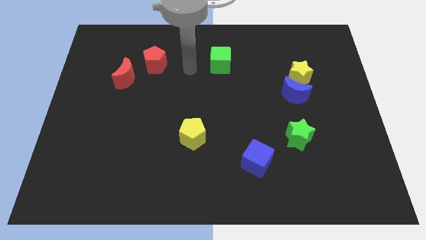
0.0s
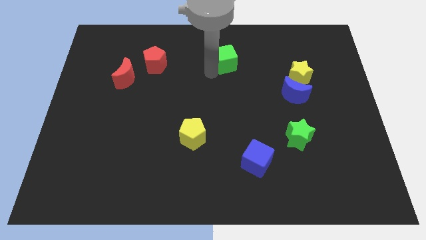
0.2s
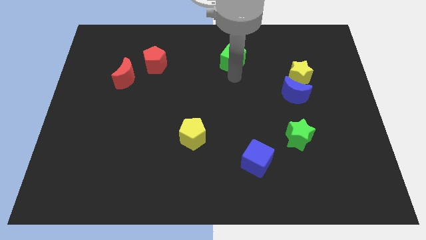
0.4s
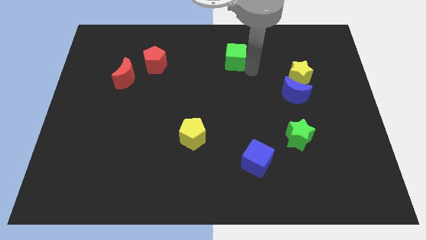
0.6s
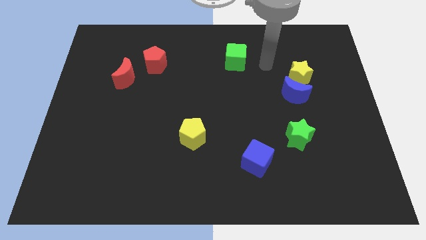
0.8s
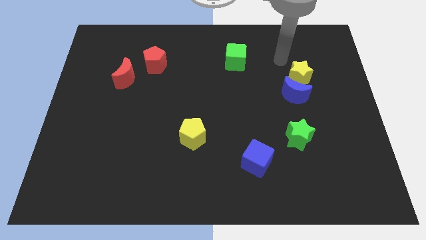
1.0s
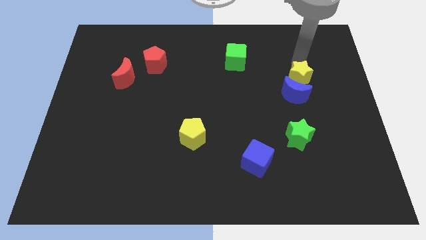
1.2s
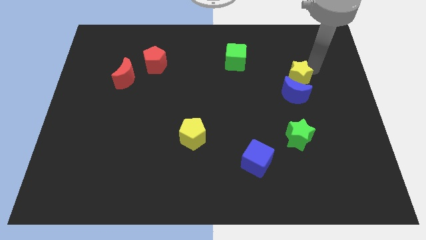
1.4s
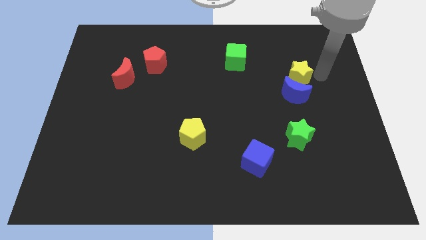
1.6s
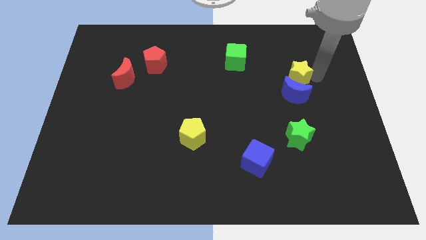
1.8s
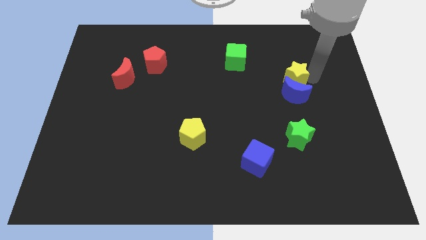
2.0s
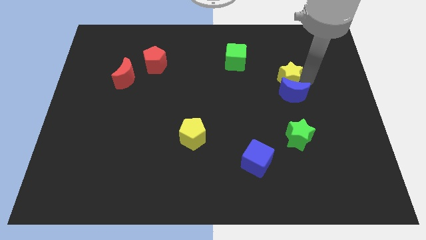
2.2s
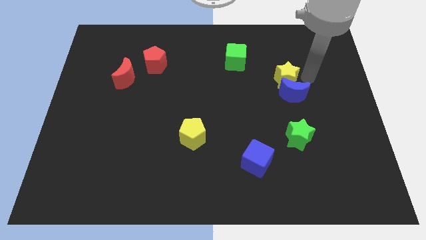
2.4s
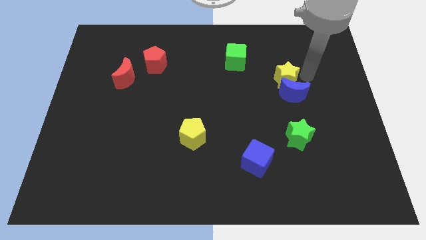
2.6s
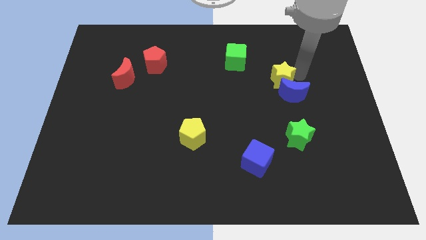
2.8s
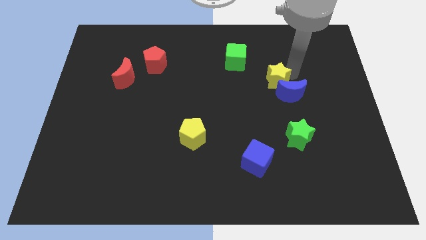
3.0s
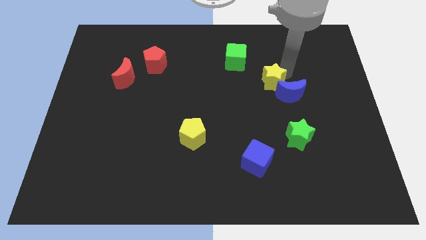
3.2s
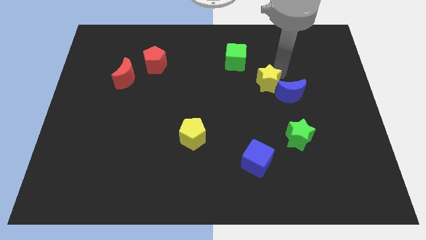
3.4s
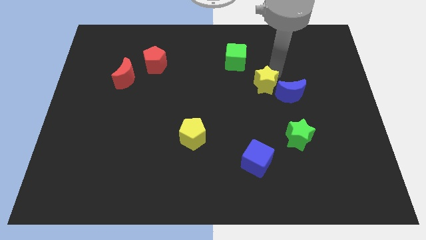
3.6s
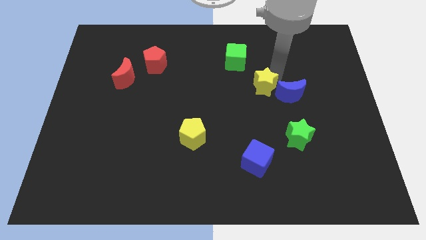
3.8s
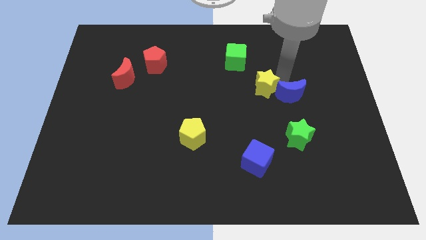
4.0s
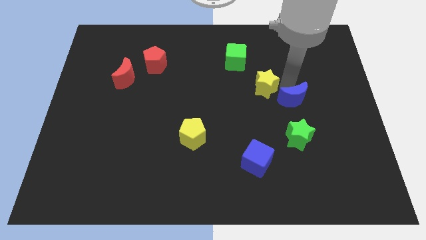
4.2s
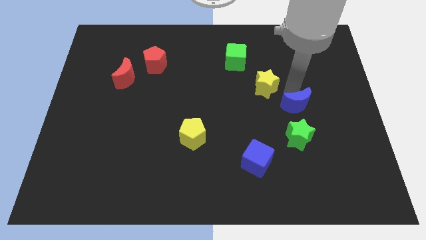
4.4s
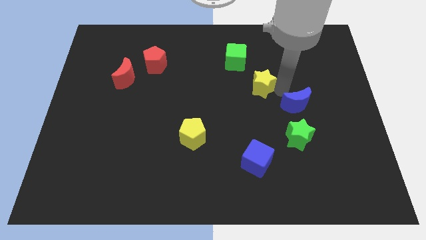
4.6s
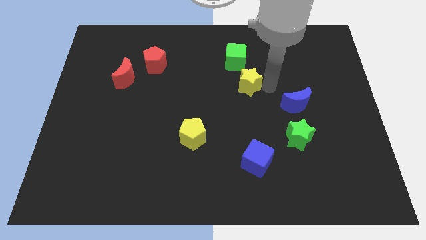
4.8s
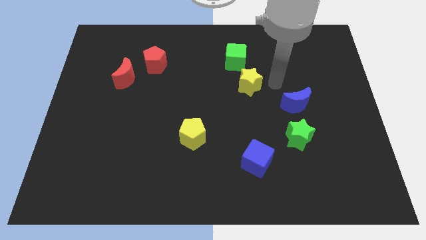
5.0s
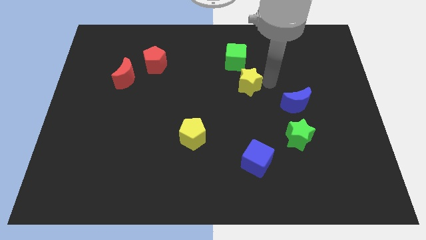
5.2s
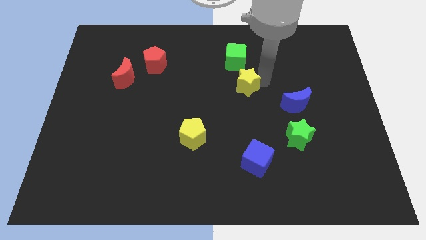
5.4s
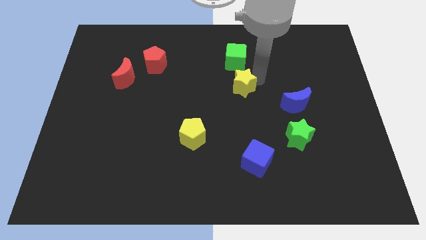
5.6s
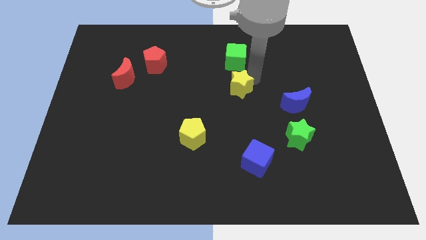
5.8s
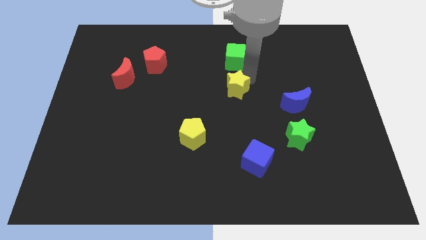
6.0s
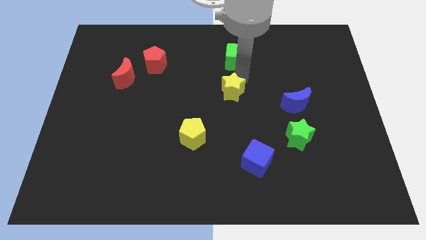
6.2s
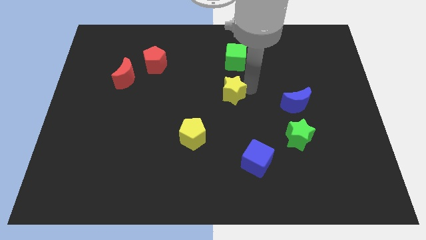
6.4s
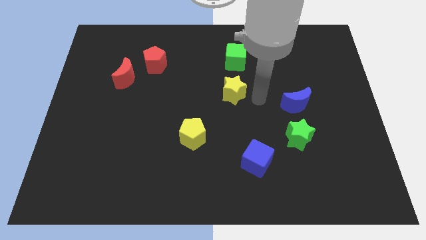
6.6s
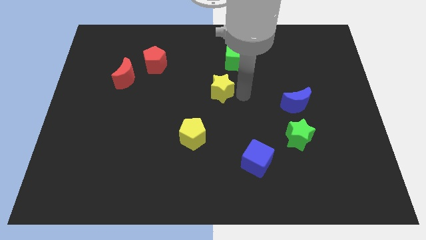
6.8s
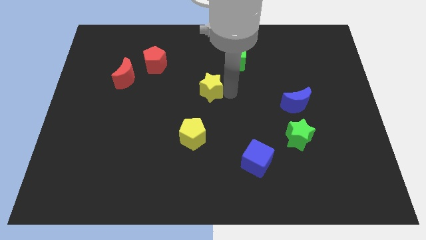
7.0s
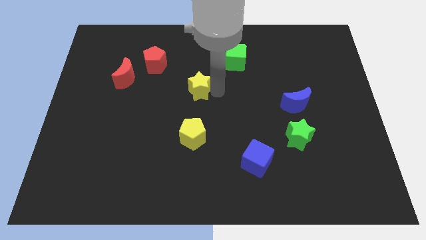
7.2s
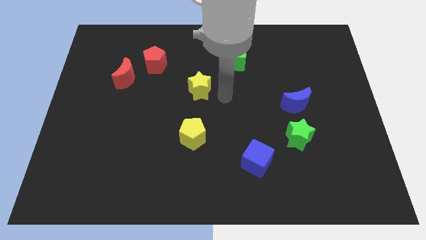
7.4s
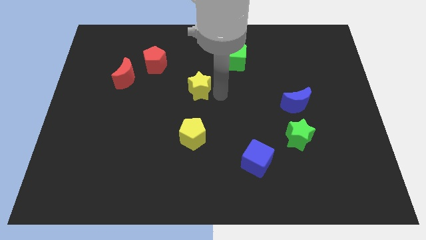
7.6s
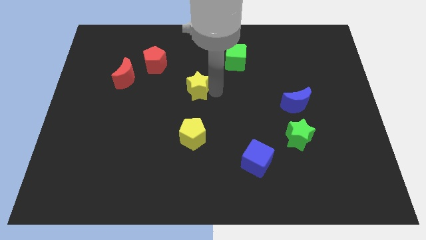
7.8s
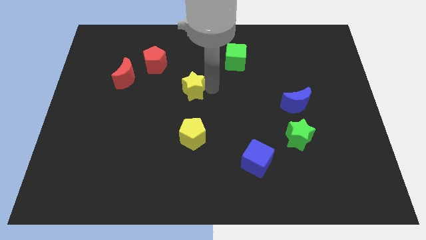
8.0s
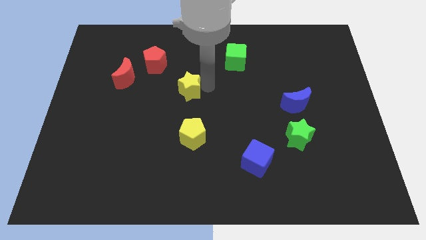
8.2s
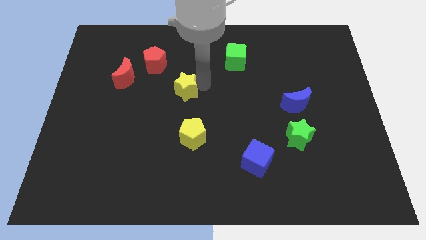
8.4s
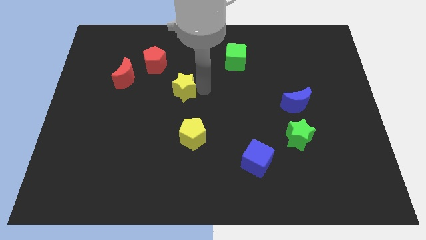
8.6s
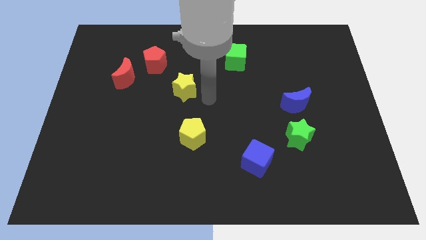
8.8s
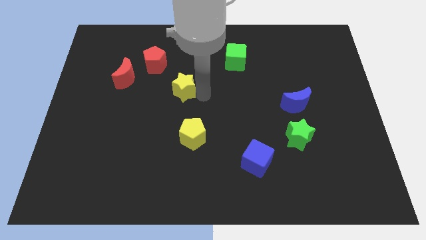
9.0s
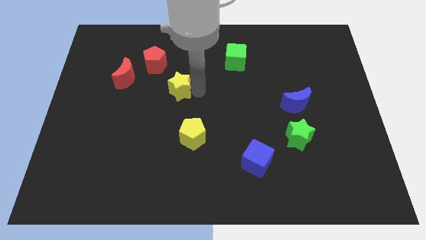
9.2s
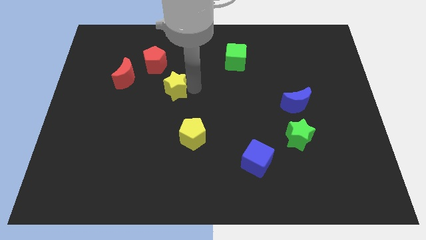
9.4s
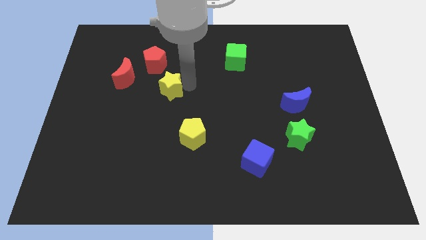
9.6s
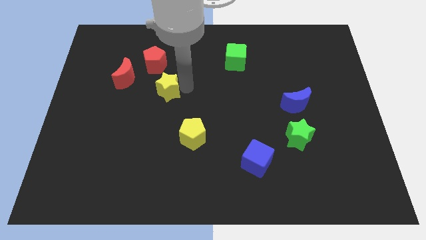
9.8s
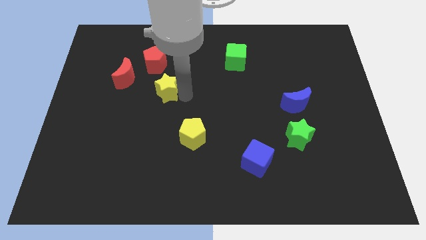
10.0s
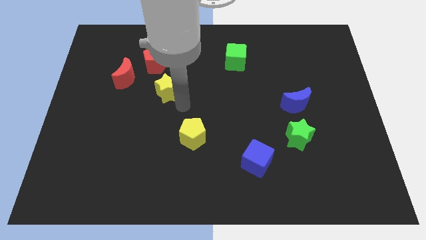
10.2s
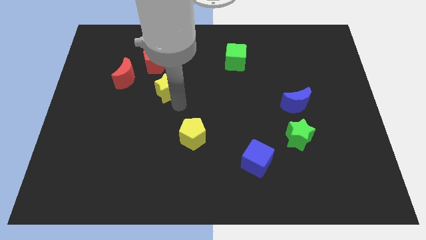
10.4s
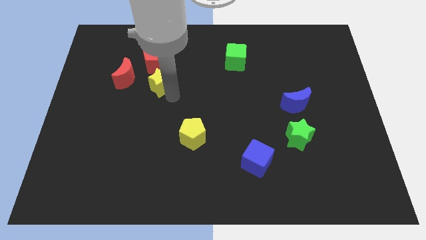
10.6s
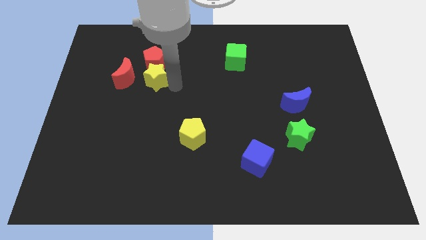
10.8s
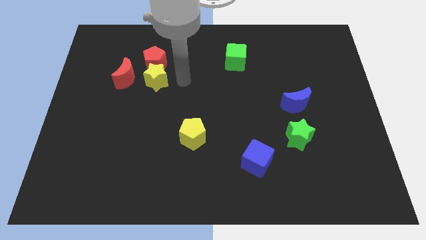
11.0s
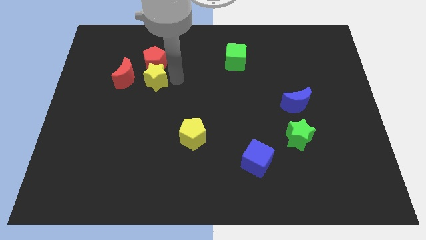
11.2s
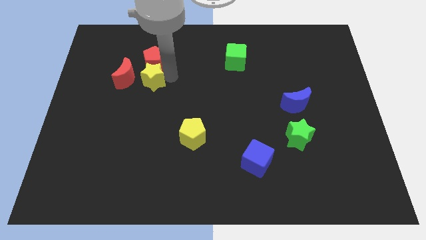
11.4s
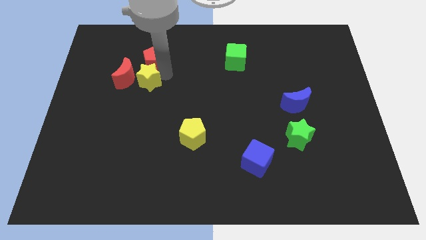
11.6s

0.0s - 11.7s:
put the yellow star towards the red moon
